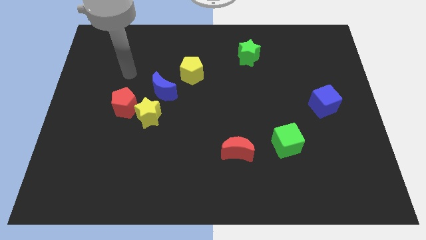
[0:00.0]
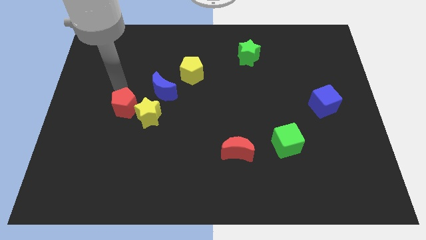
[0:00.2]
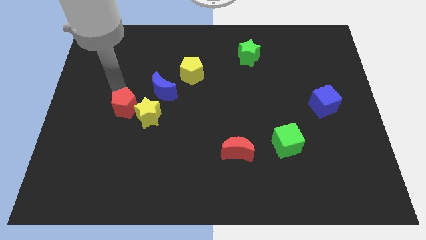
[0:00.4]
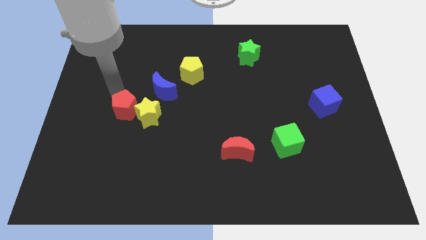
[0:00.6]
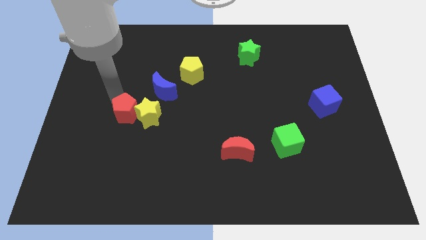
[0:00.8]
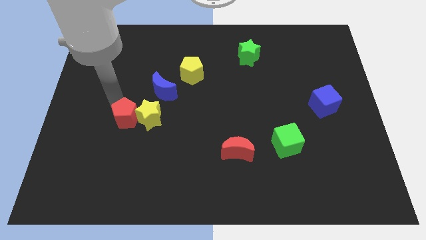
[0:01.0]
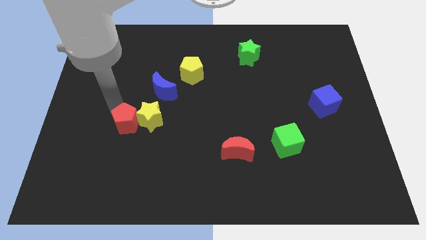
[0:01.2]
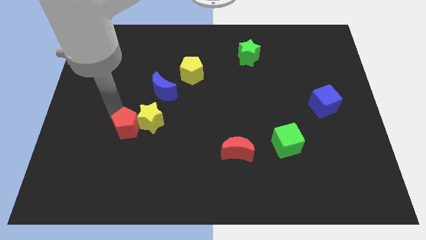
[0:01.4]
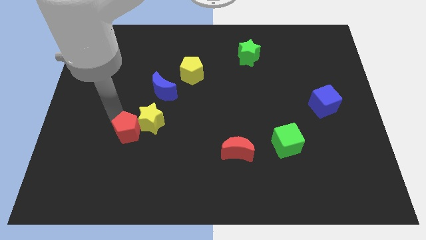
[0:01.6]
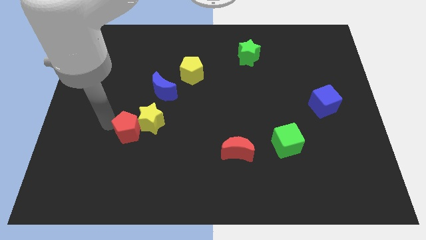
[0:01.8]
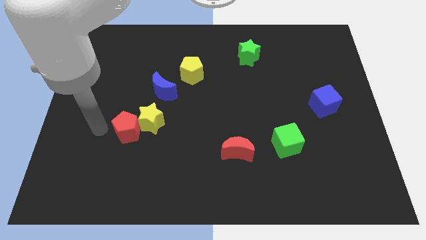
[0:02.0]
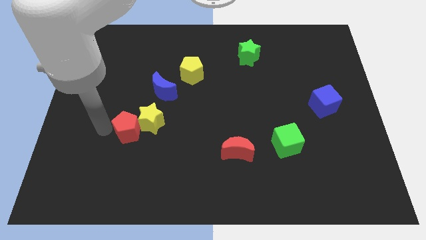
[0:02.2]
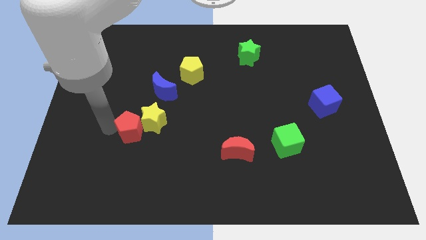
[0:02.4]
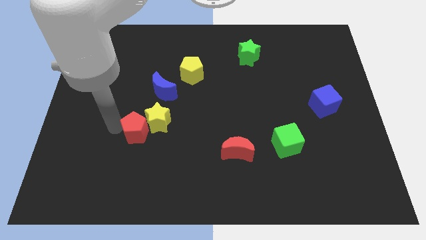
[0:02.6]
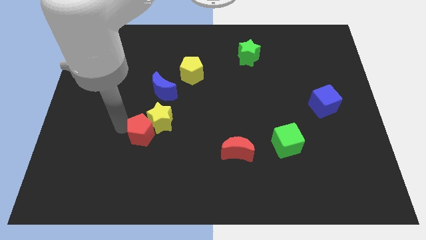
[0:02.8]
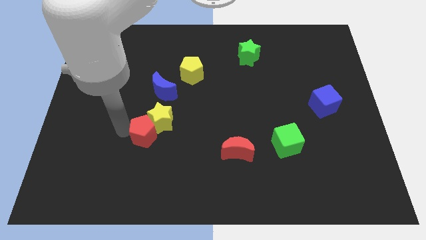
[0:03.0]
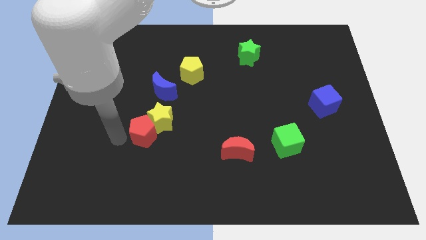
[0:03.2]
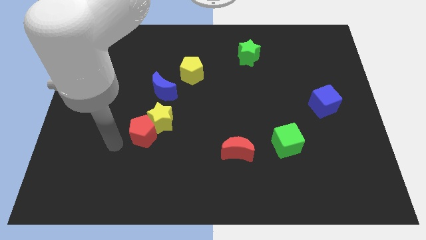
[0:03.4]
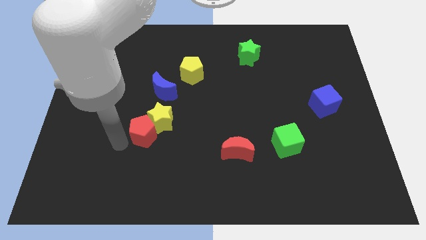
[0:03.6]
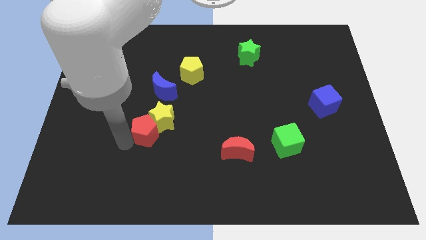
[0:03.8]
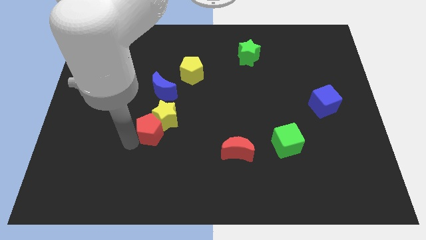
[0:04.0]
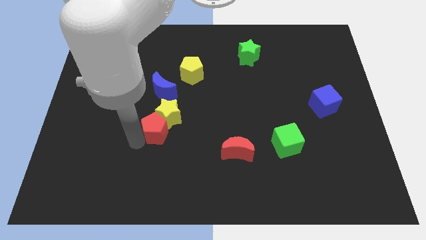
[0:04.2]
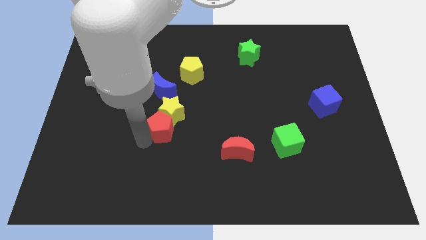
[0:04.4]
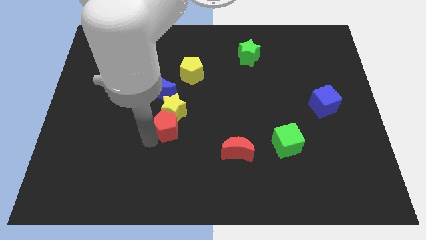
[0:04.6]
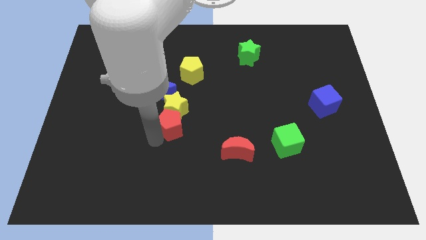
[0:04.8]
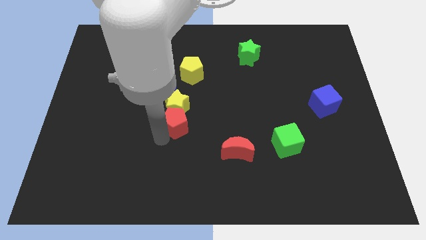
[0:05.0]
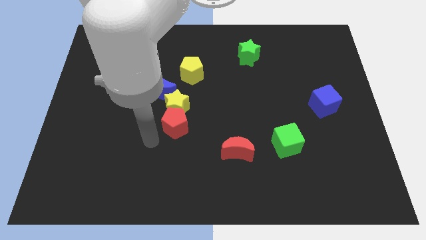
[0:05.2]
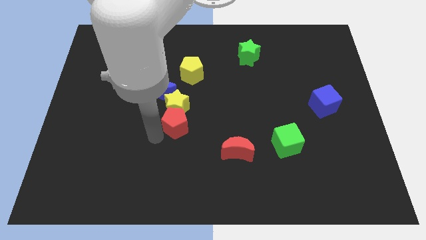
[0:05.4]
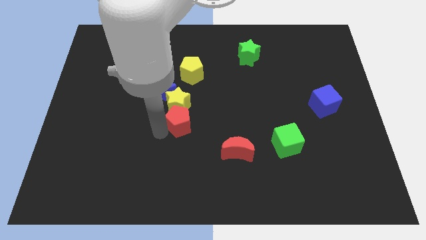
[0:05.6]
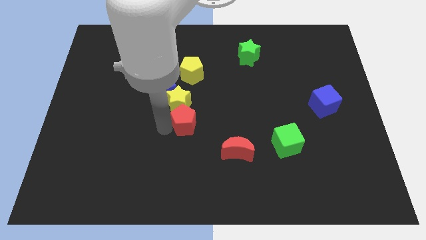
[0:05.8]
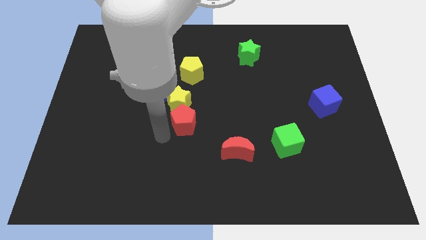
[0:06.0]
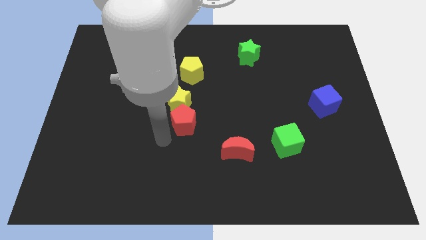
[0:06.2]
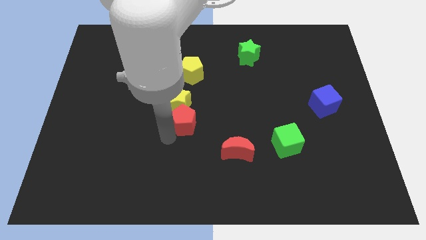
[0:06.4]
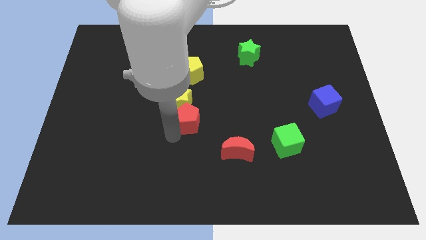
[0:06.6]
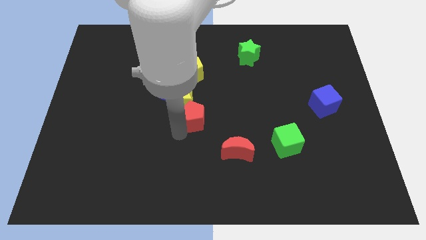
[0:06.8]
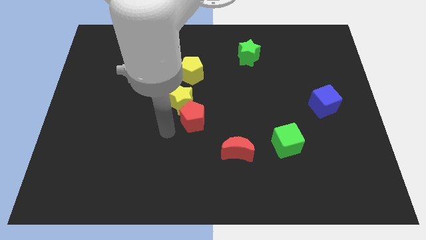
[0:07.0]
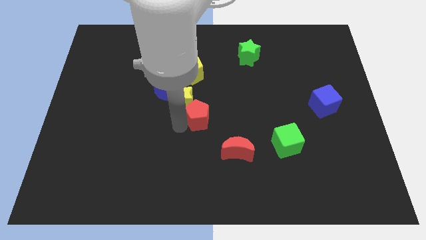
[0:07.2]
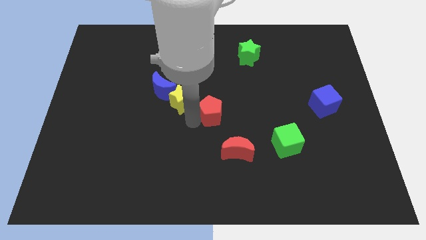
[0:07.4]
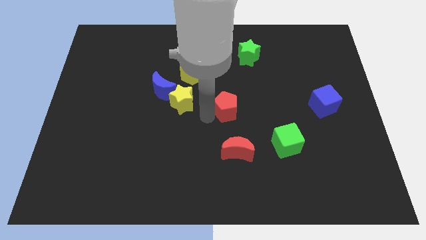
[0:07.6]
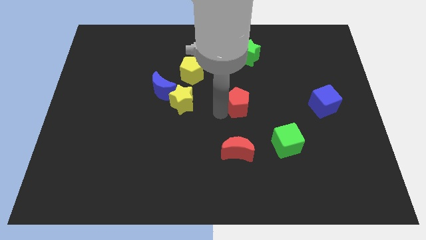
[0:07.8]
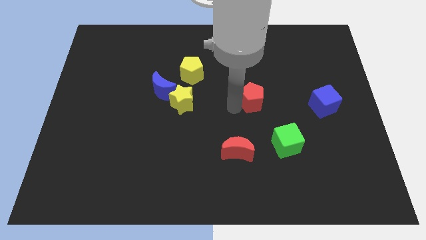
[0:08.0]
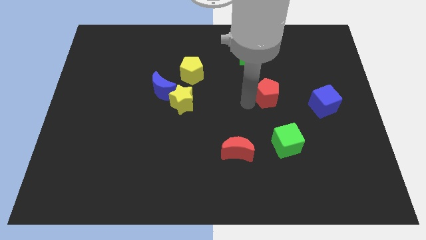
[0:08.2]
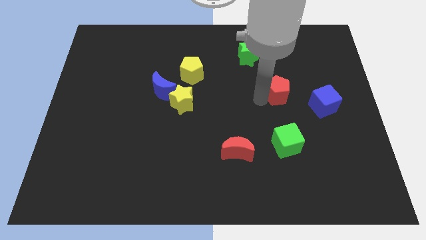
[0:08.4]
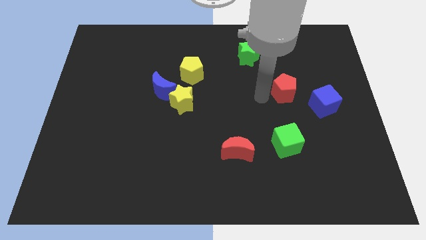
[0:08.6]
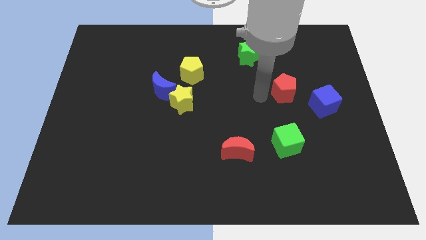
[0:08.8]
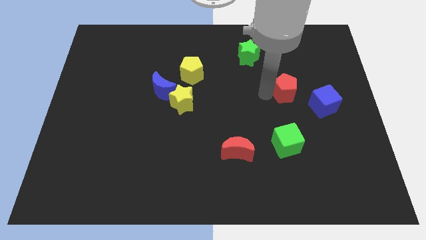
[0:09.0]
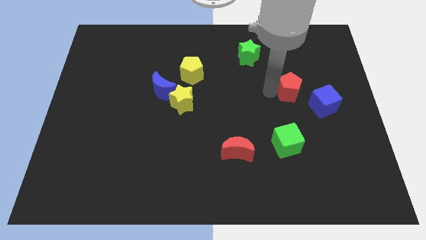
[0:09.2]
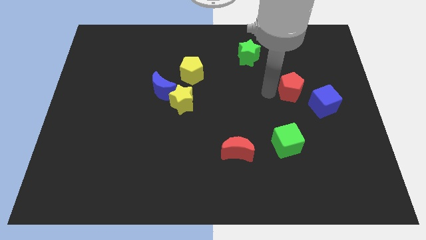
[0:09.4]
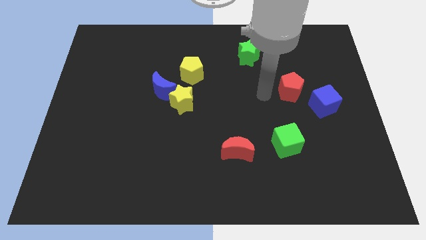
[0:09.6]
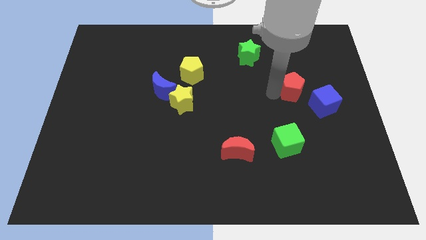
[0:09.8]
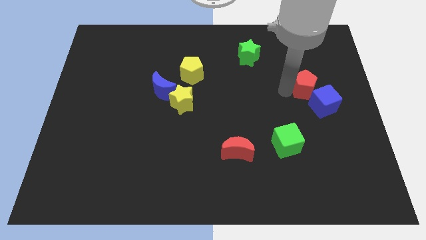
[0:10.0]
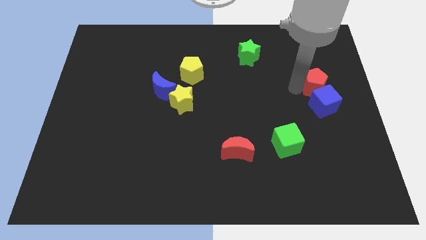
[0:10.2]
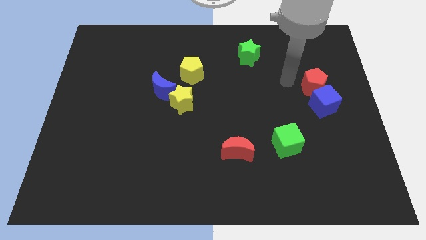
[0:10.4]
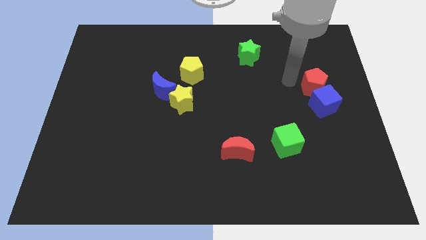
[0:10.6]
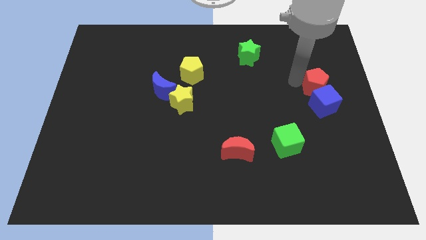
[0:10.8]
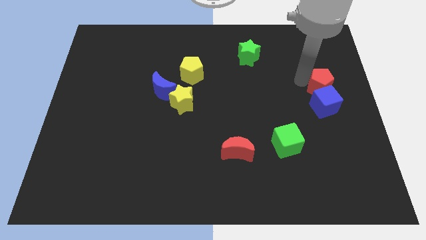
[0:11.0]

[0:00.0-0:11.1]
push the red pentagon to the right side of the board

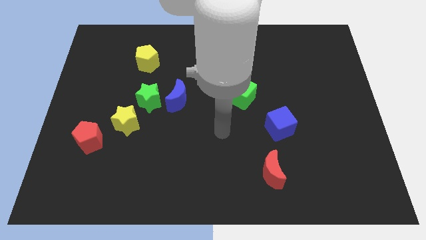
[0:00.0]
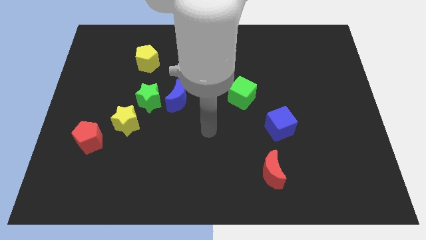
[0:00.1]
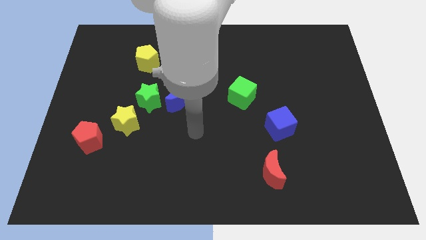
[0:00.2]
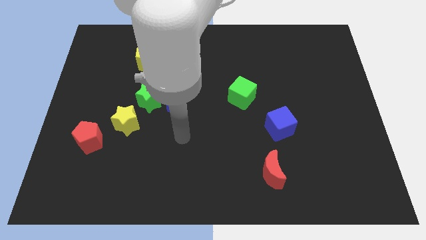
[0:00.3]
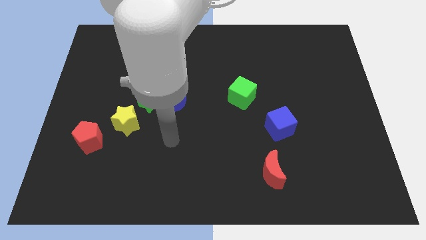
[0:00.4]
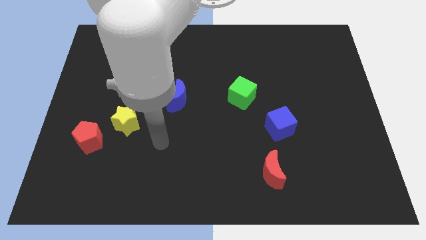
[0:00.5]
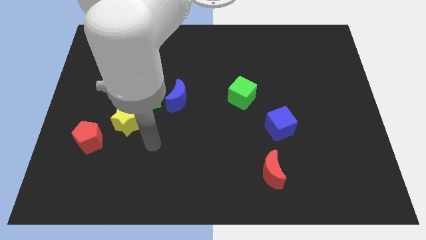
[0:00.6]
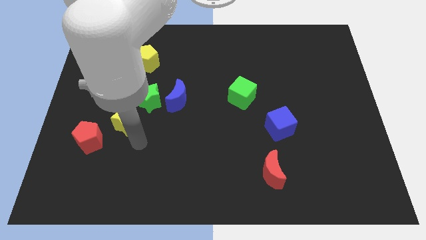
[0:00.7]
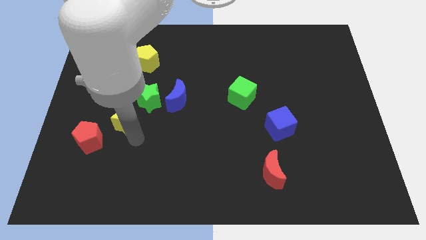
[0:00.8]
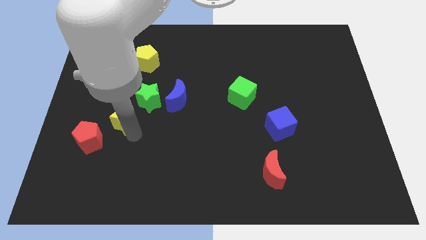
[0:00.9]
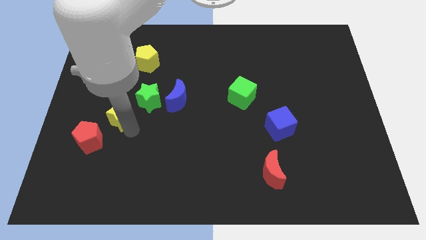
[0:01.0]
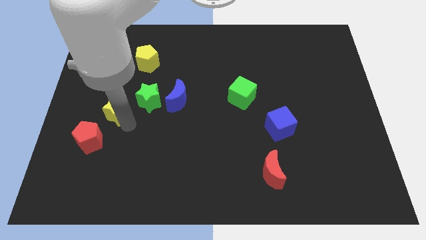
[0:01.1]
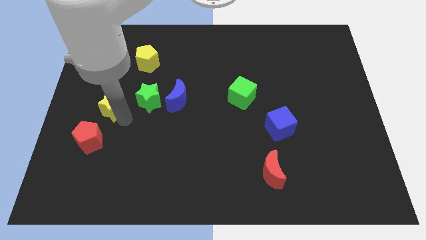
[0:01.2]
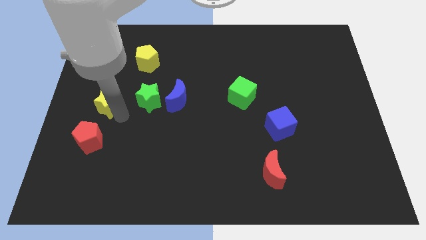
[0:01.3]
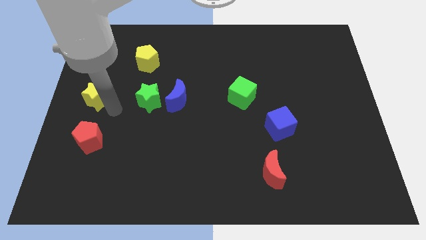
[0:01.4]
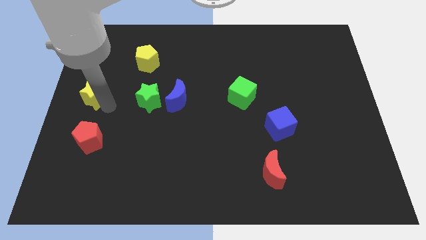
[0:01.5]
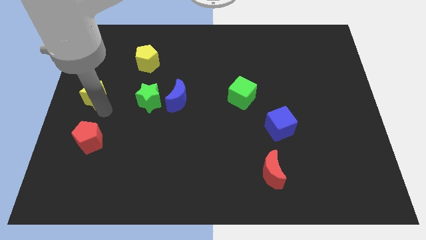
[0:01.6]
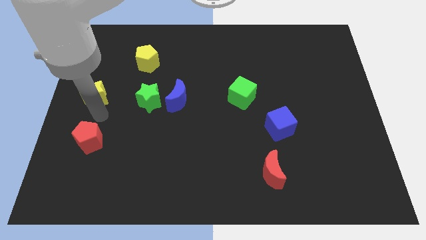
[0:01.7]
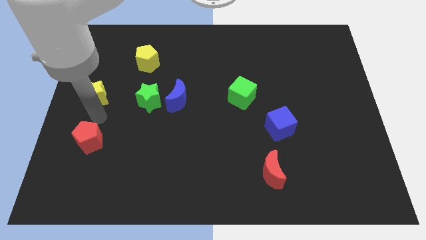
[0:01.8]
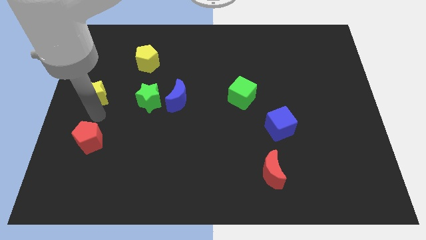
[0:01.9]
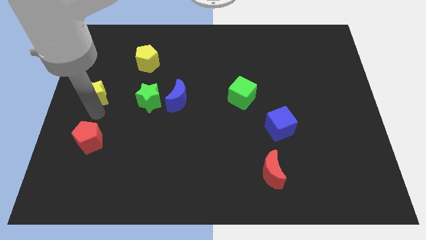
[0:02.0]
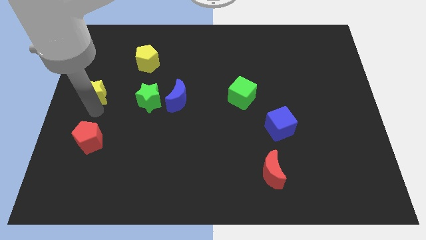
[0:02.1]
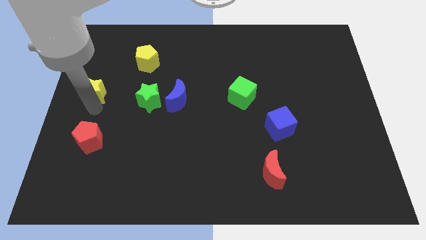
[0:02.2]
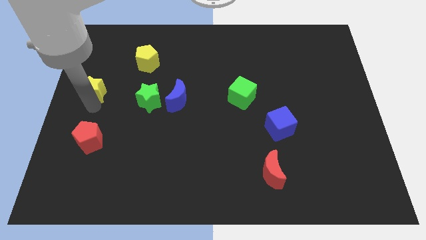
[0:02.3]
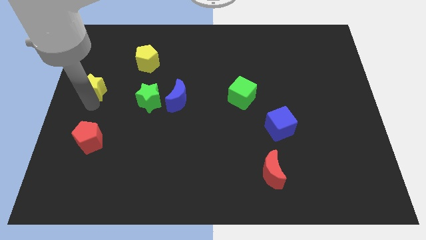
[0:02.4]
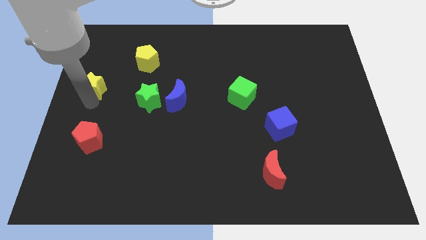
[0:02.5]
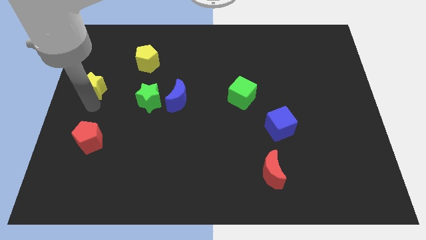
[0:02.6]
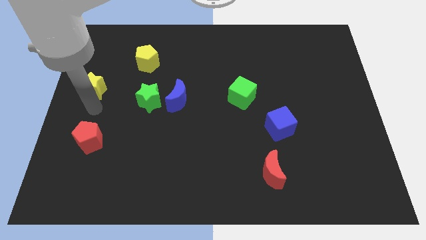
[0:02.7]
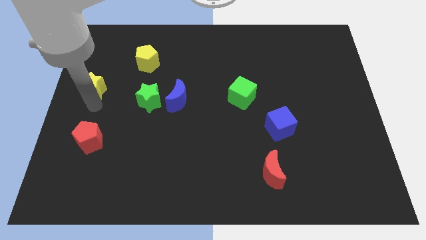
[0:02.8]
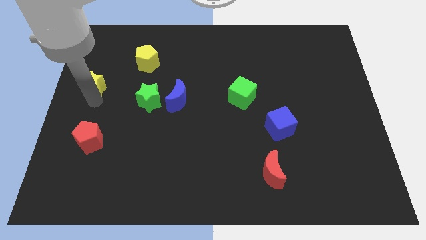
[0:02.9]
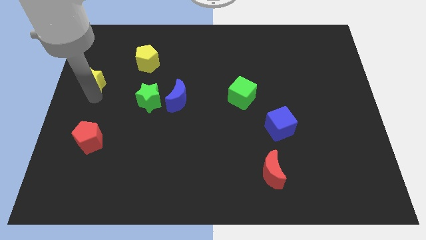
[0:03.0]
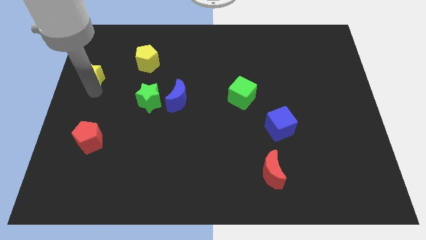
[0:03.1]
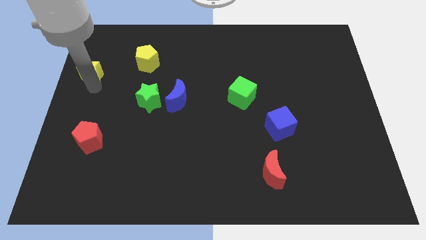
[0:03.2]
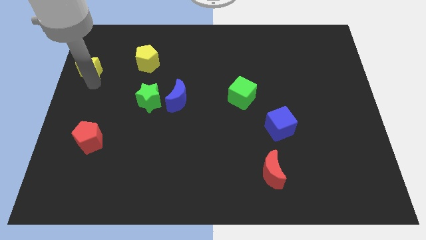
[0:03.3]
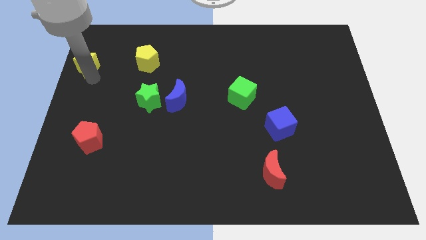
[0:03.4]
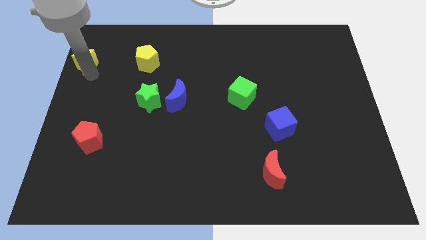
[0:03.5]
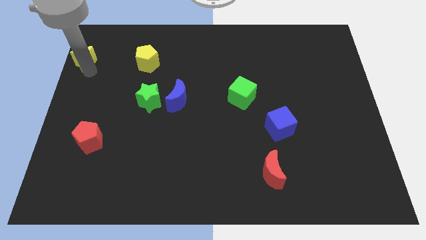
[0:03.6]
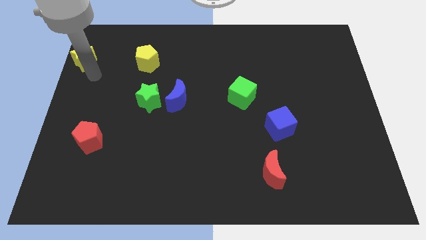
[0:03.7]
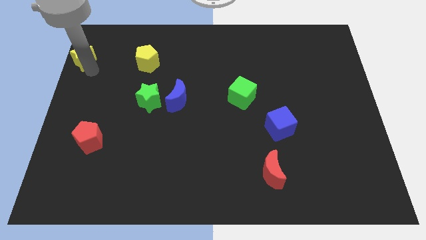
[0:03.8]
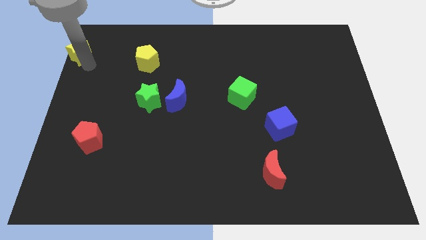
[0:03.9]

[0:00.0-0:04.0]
move the yellow star to the top left corner
